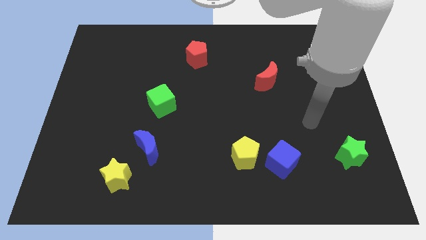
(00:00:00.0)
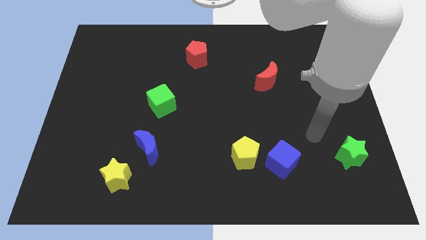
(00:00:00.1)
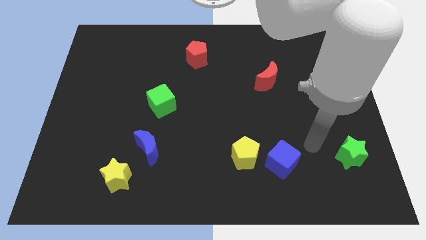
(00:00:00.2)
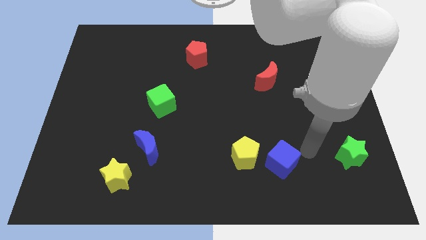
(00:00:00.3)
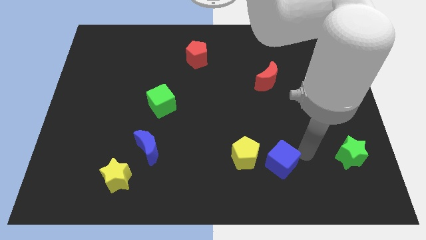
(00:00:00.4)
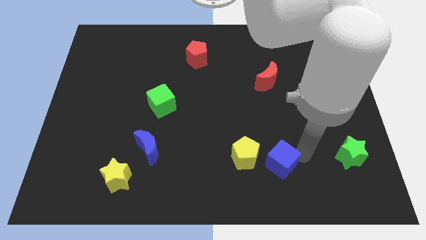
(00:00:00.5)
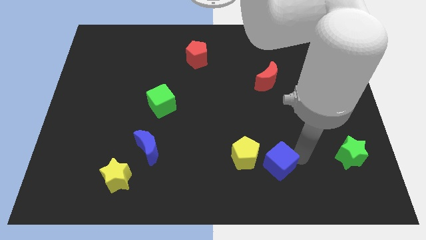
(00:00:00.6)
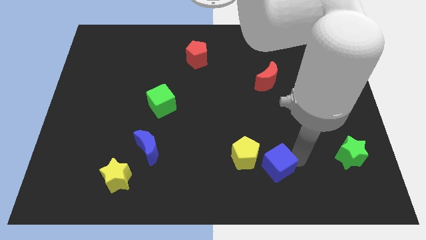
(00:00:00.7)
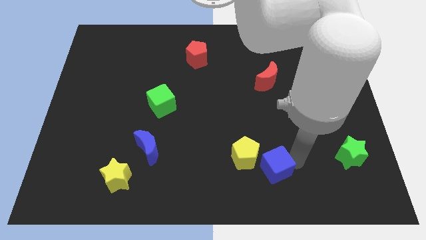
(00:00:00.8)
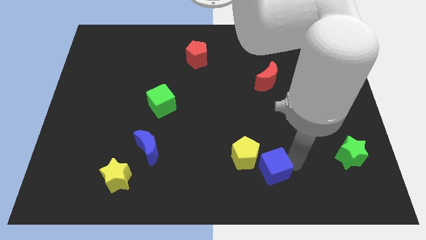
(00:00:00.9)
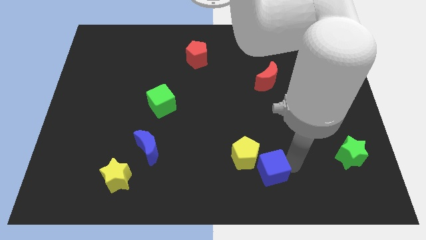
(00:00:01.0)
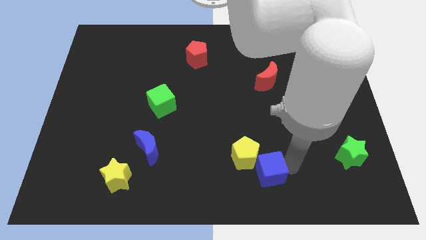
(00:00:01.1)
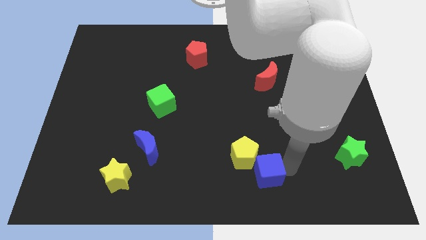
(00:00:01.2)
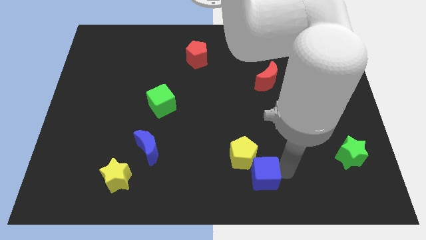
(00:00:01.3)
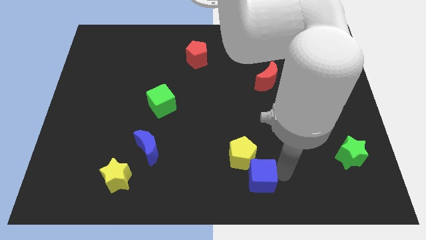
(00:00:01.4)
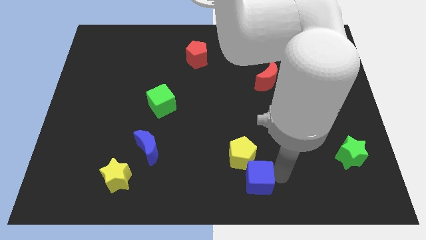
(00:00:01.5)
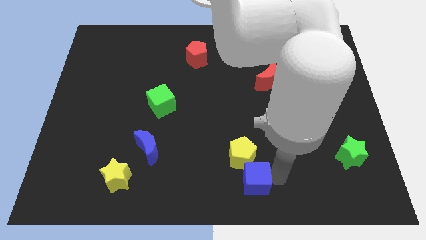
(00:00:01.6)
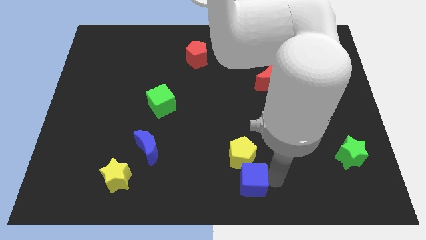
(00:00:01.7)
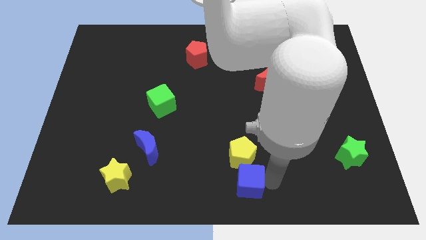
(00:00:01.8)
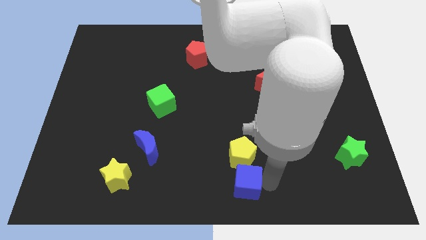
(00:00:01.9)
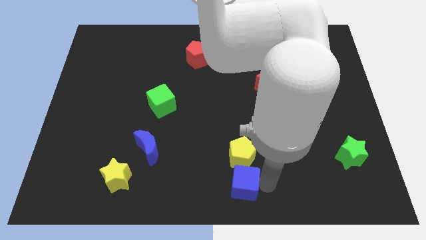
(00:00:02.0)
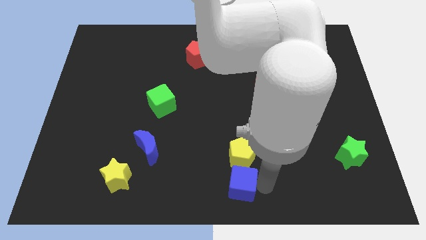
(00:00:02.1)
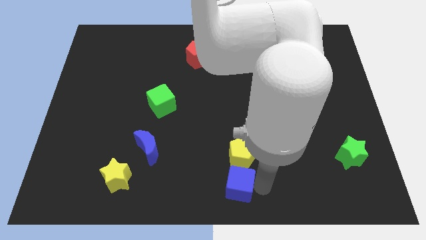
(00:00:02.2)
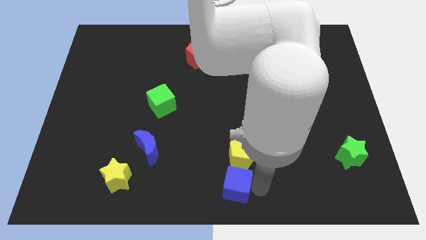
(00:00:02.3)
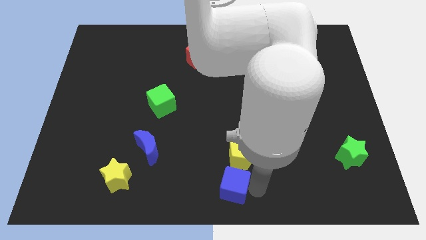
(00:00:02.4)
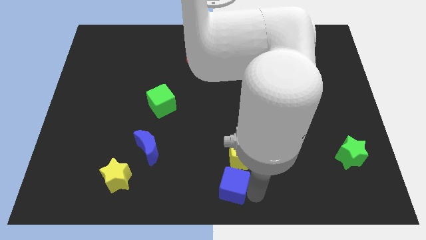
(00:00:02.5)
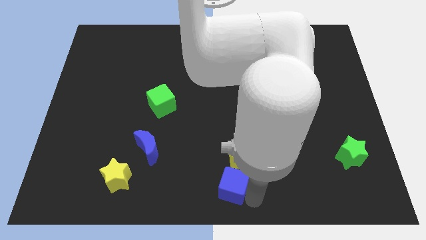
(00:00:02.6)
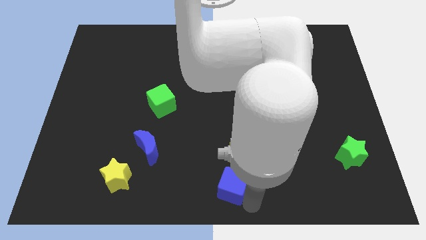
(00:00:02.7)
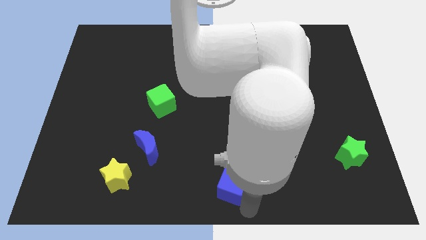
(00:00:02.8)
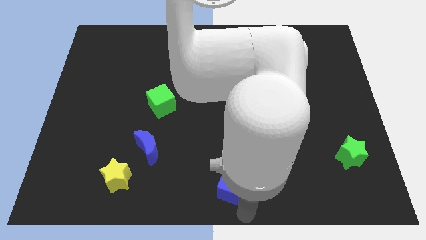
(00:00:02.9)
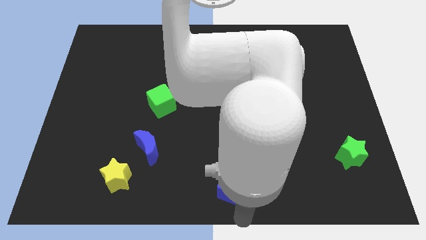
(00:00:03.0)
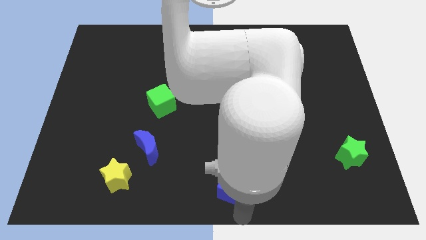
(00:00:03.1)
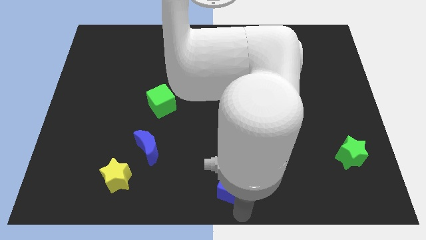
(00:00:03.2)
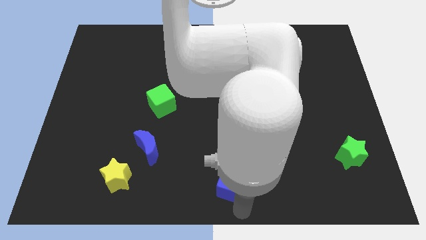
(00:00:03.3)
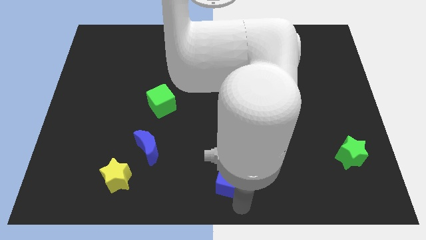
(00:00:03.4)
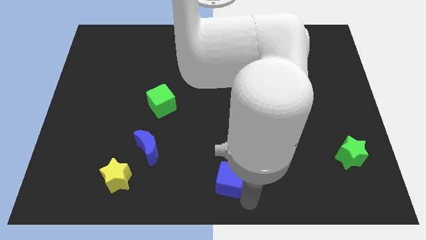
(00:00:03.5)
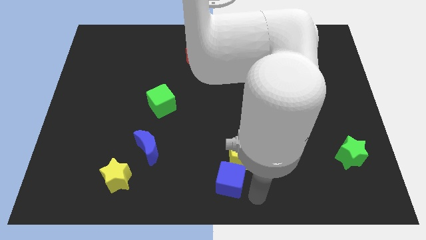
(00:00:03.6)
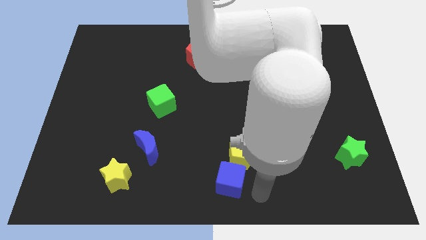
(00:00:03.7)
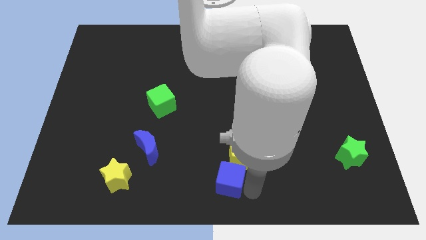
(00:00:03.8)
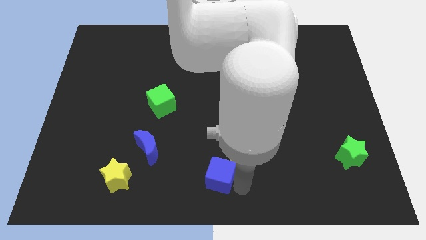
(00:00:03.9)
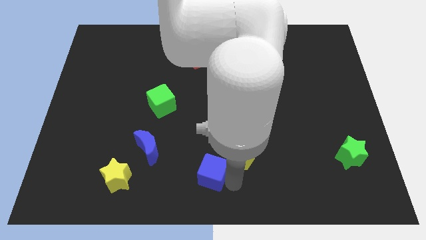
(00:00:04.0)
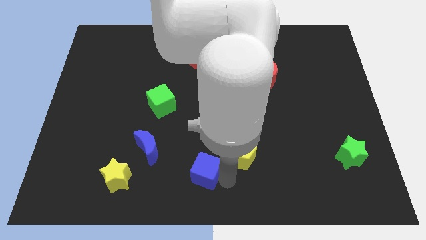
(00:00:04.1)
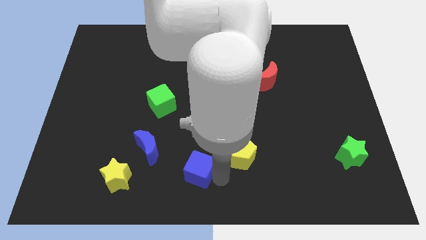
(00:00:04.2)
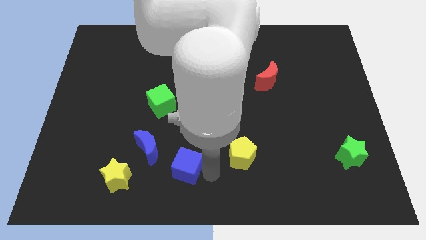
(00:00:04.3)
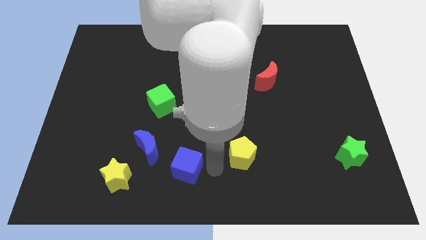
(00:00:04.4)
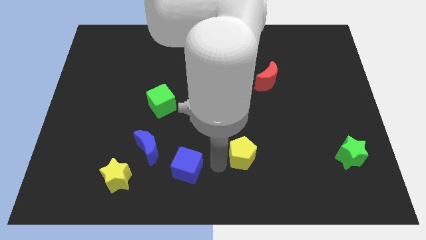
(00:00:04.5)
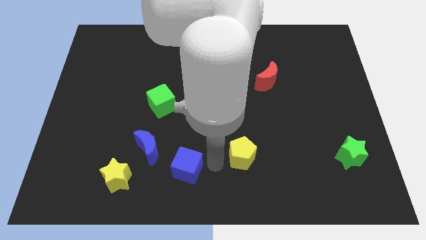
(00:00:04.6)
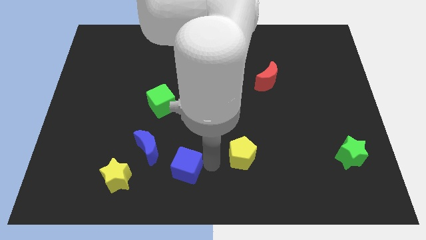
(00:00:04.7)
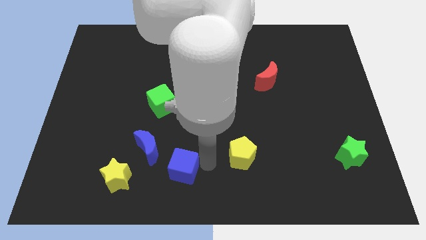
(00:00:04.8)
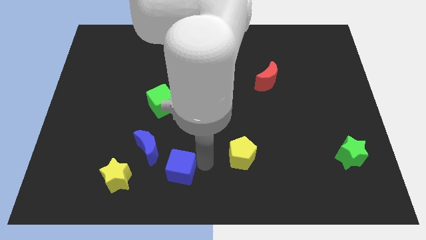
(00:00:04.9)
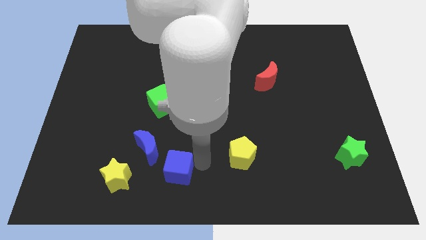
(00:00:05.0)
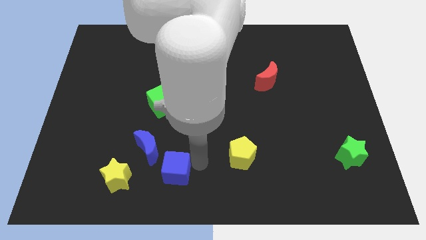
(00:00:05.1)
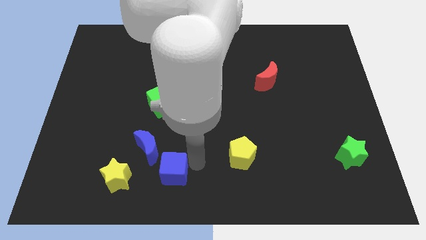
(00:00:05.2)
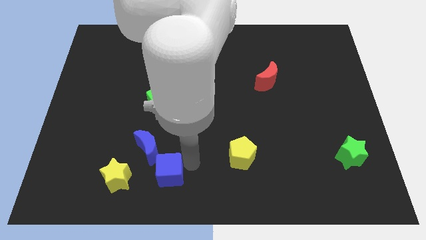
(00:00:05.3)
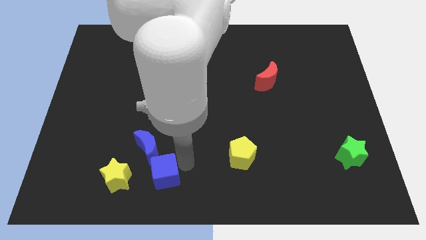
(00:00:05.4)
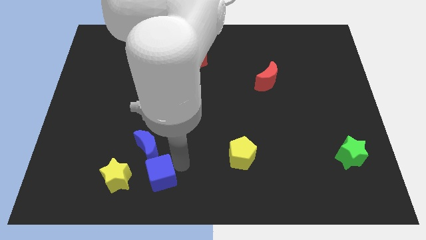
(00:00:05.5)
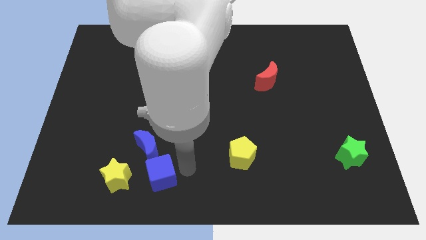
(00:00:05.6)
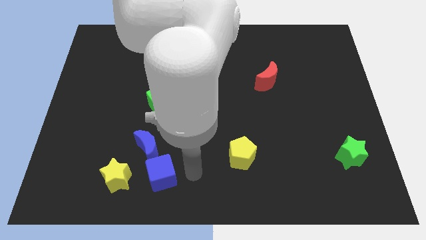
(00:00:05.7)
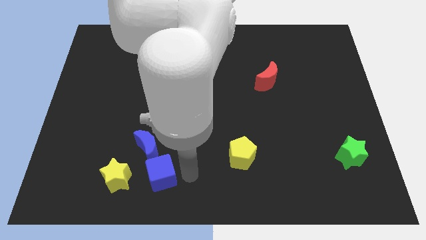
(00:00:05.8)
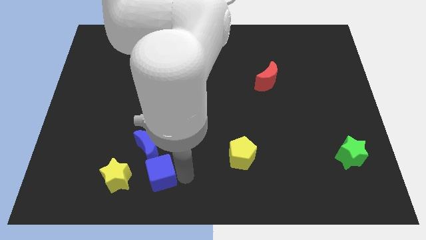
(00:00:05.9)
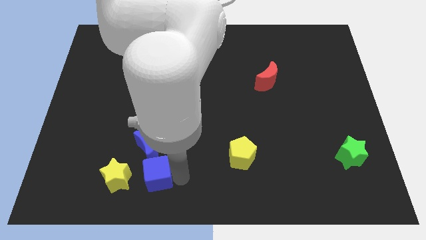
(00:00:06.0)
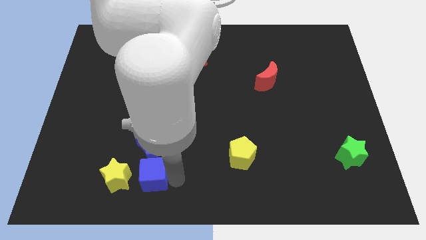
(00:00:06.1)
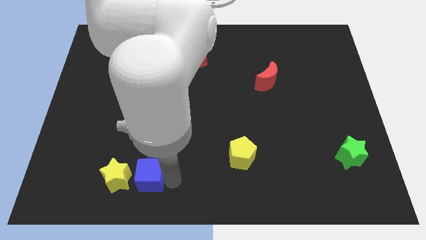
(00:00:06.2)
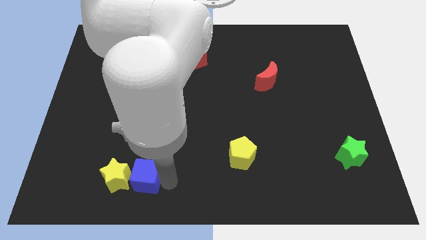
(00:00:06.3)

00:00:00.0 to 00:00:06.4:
put the blue cube close to the yellow star
